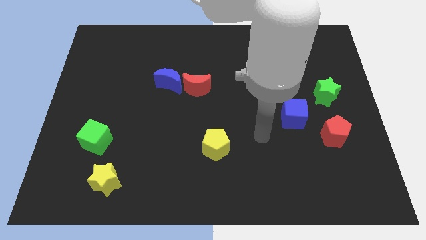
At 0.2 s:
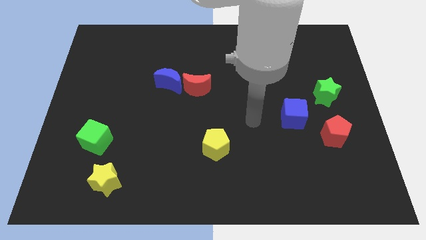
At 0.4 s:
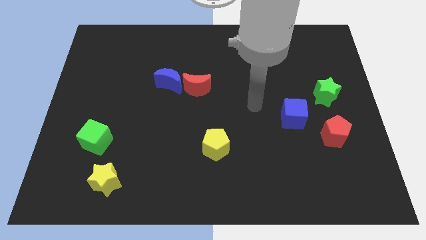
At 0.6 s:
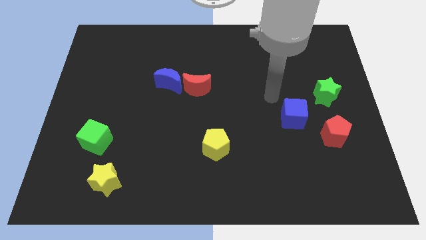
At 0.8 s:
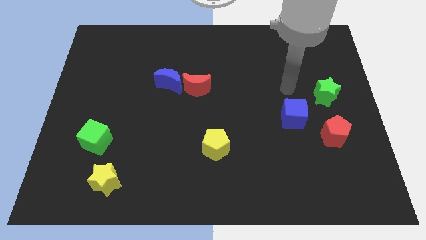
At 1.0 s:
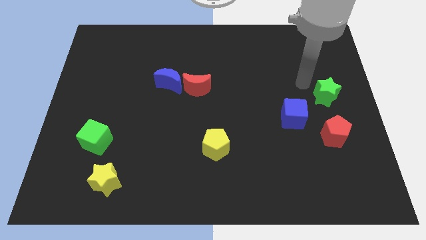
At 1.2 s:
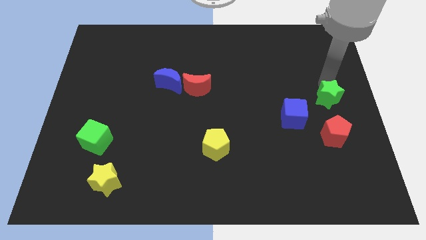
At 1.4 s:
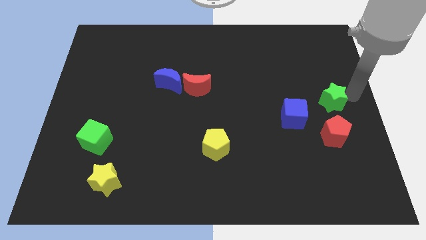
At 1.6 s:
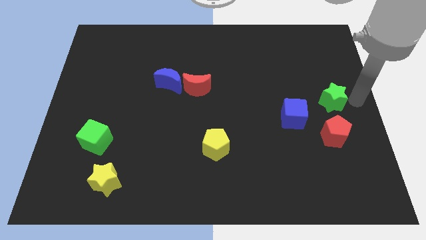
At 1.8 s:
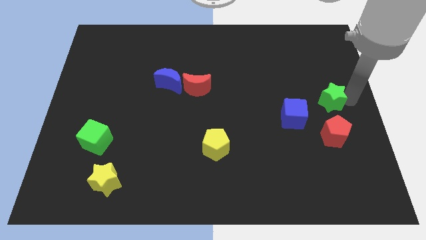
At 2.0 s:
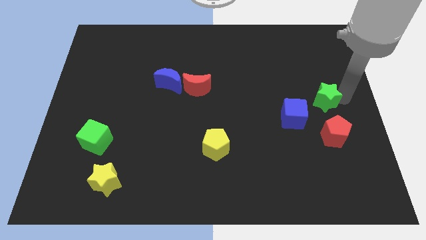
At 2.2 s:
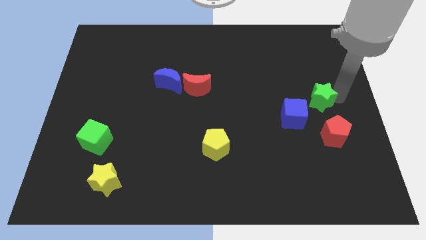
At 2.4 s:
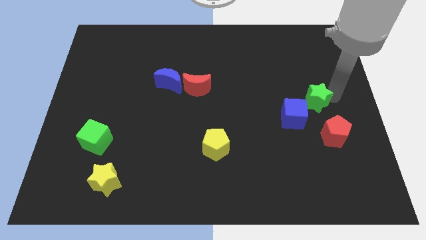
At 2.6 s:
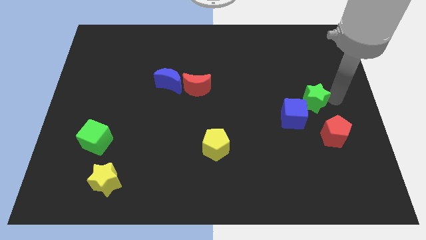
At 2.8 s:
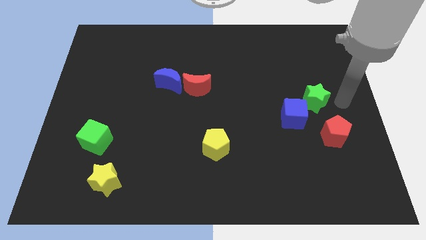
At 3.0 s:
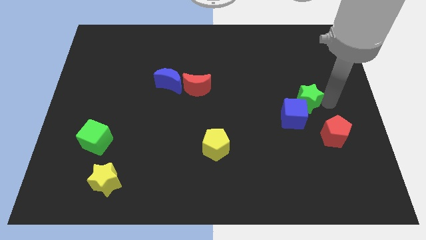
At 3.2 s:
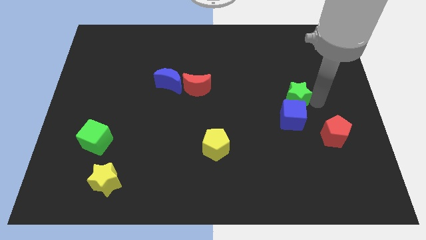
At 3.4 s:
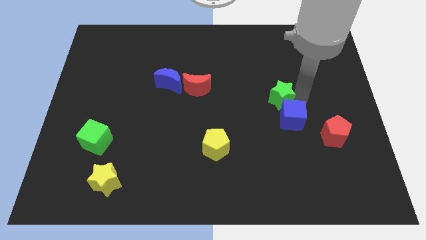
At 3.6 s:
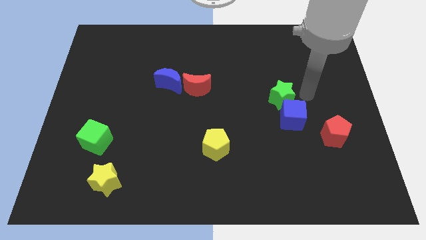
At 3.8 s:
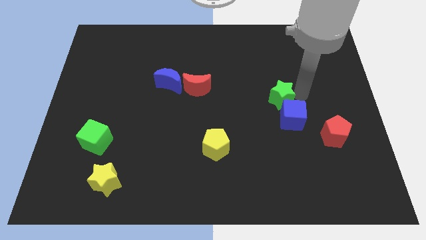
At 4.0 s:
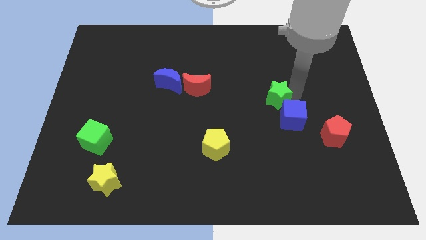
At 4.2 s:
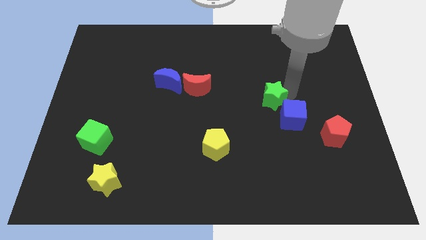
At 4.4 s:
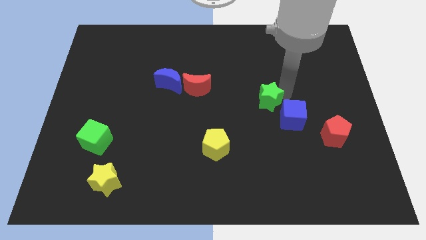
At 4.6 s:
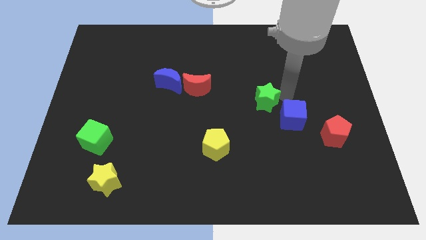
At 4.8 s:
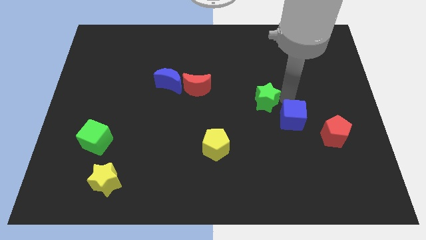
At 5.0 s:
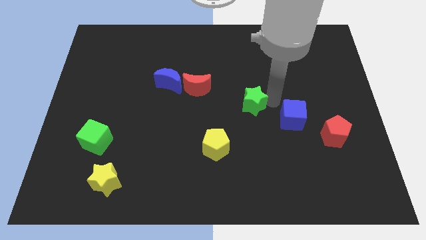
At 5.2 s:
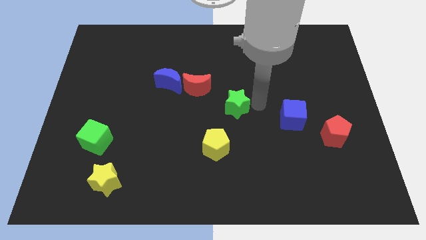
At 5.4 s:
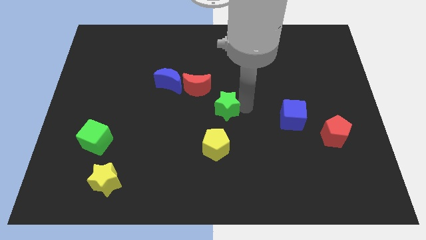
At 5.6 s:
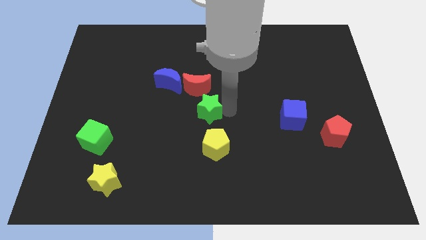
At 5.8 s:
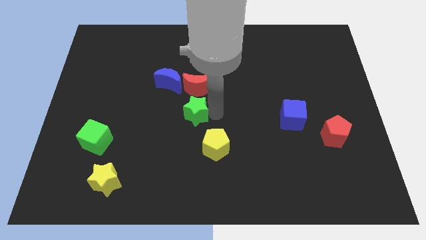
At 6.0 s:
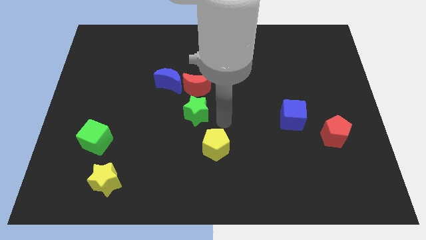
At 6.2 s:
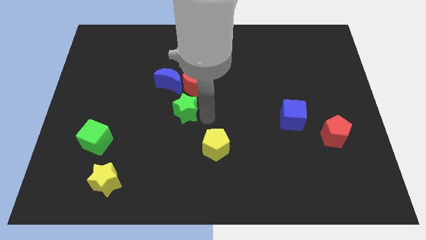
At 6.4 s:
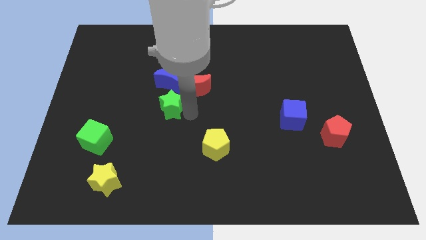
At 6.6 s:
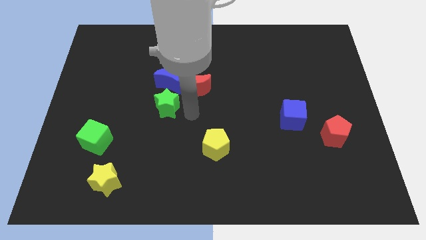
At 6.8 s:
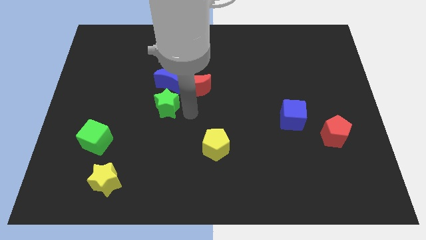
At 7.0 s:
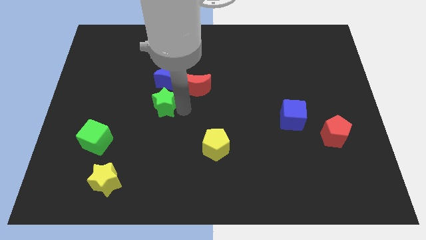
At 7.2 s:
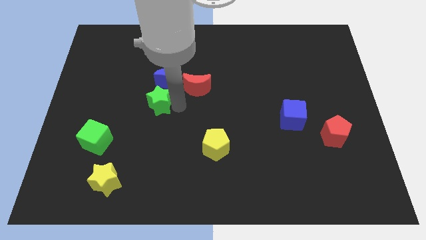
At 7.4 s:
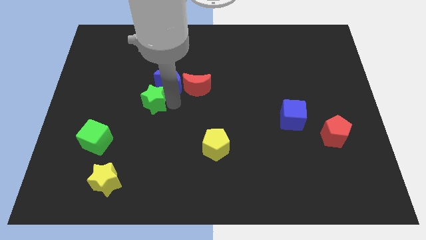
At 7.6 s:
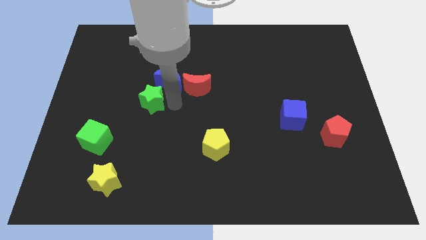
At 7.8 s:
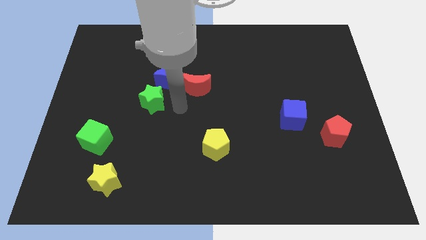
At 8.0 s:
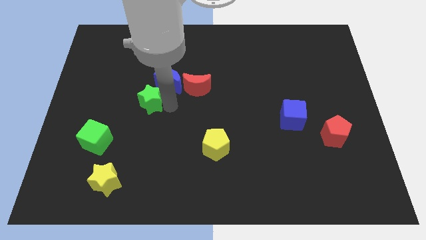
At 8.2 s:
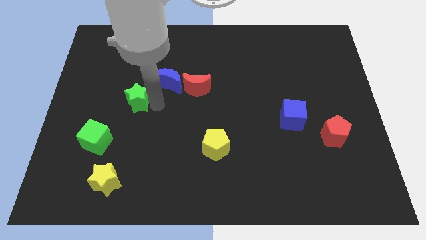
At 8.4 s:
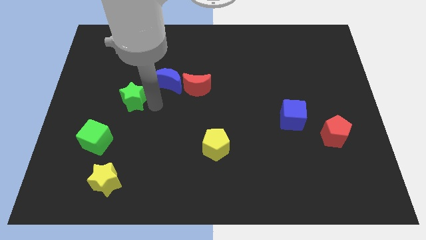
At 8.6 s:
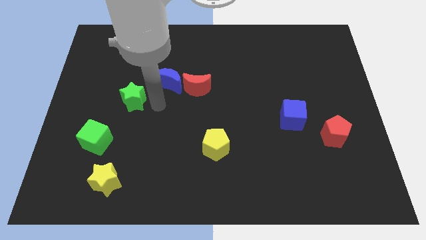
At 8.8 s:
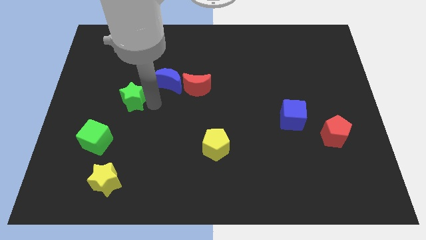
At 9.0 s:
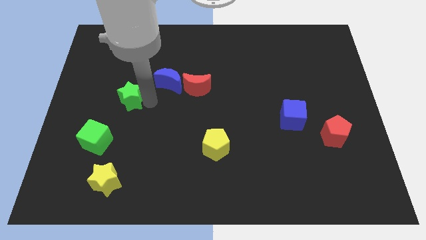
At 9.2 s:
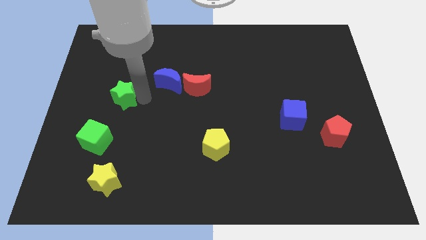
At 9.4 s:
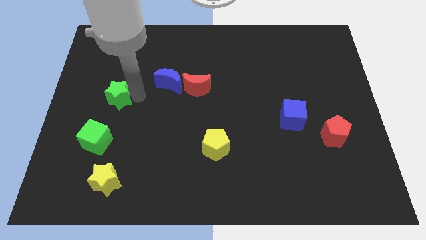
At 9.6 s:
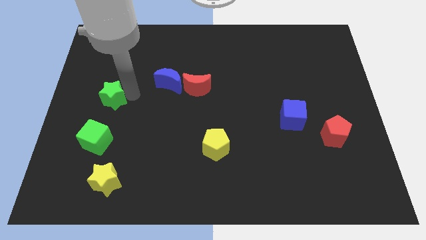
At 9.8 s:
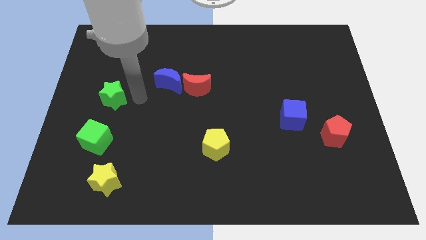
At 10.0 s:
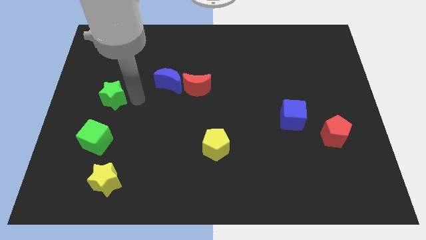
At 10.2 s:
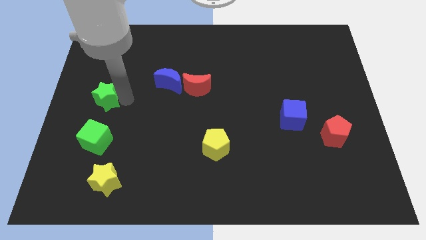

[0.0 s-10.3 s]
slide the green star to the left side

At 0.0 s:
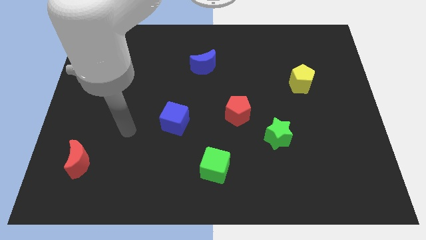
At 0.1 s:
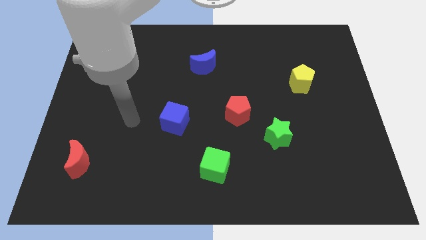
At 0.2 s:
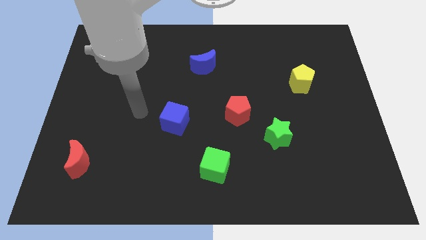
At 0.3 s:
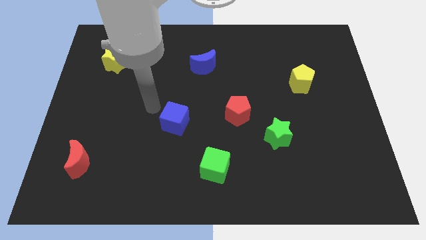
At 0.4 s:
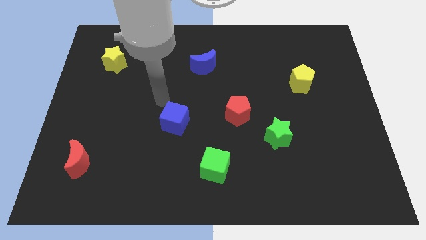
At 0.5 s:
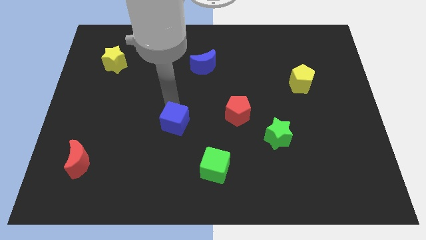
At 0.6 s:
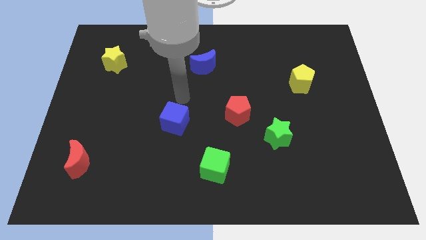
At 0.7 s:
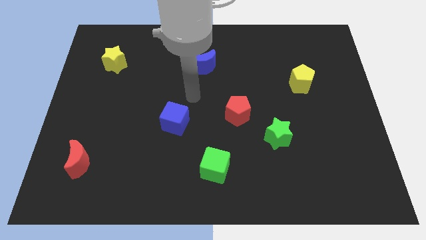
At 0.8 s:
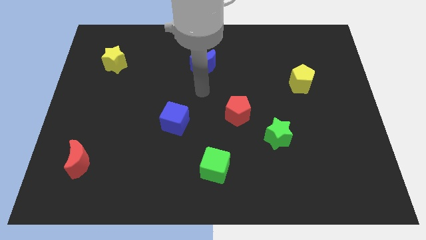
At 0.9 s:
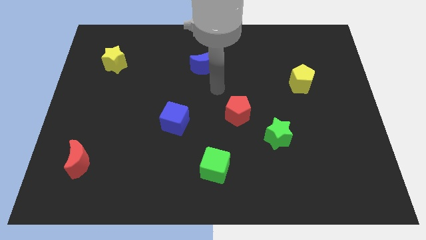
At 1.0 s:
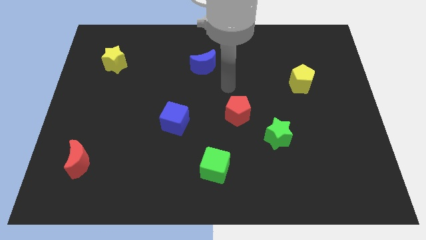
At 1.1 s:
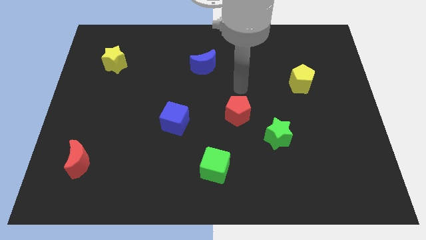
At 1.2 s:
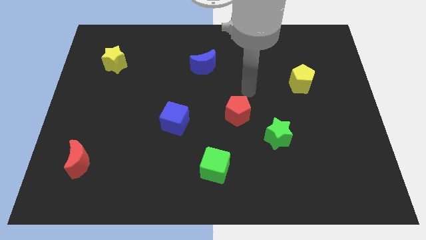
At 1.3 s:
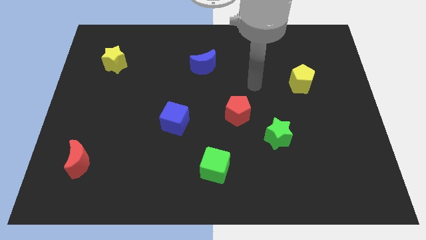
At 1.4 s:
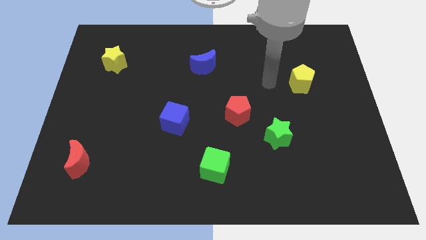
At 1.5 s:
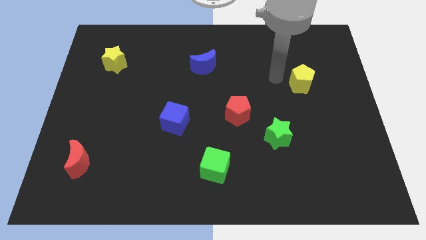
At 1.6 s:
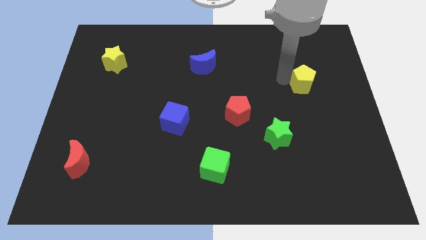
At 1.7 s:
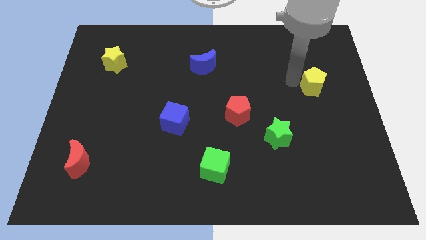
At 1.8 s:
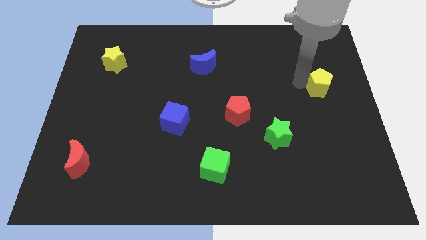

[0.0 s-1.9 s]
move the yellow pentagon to the right side of the board
